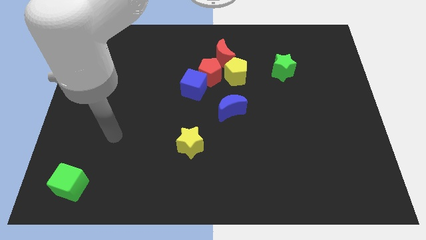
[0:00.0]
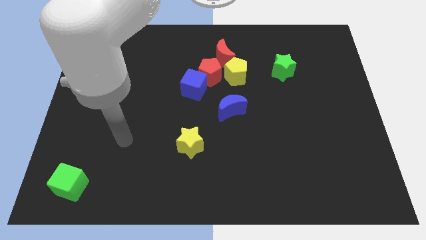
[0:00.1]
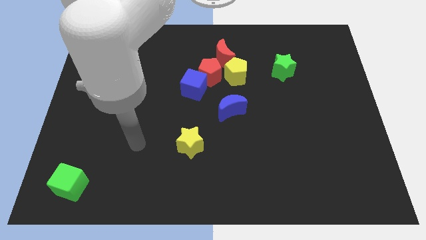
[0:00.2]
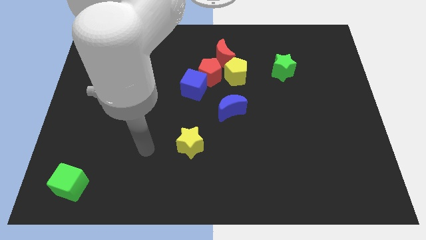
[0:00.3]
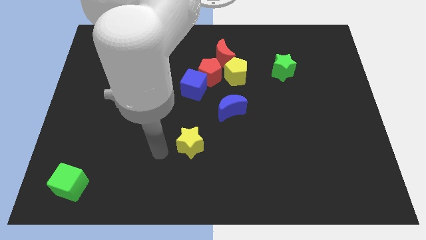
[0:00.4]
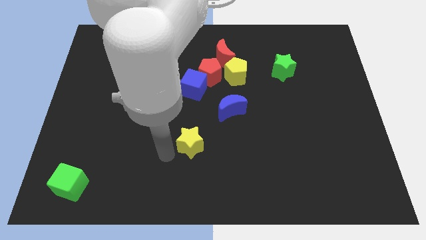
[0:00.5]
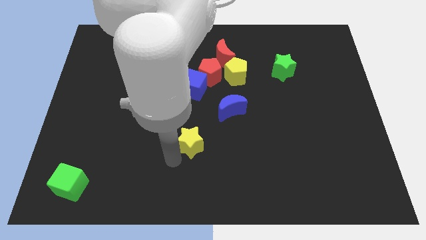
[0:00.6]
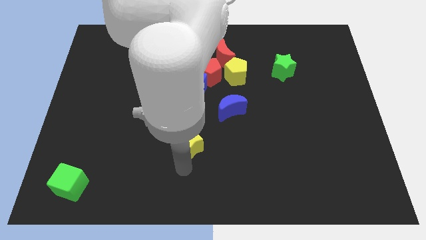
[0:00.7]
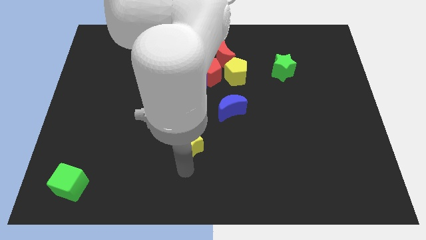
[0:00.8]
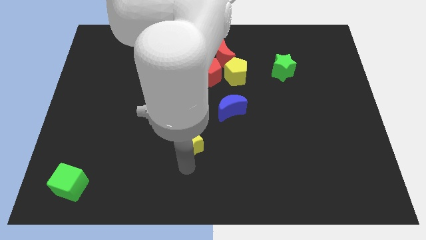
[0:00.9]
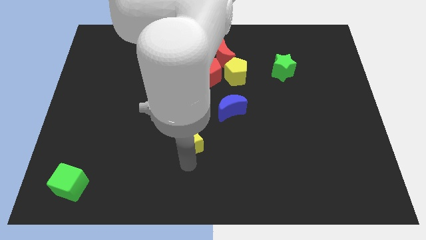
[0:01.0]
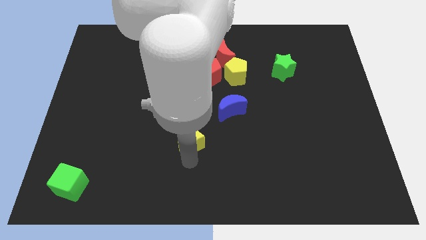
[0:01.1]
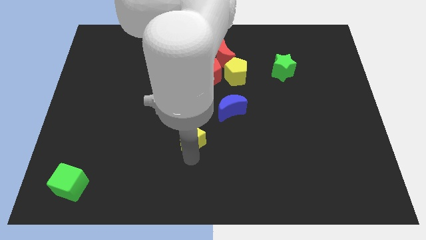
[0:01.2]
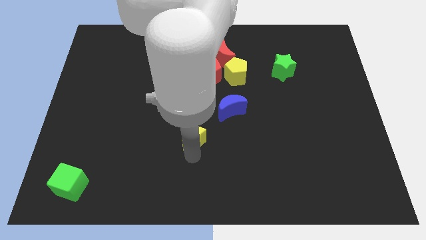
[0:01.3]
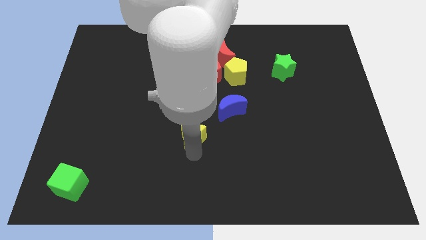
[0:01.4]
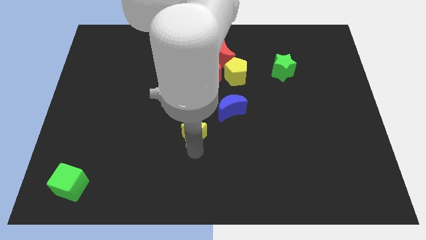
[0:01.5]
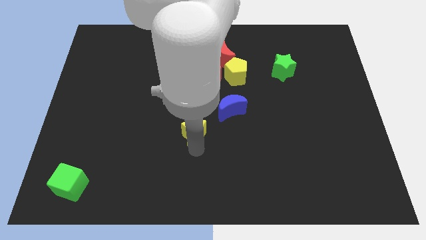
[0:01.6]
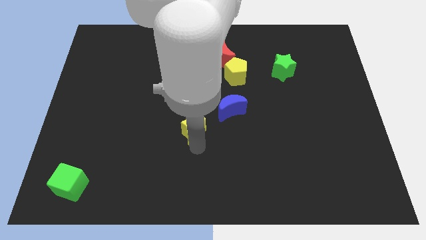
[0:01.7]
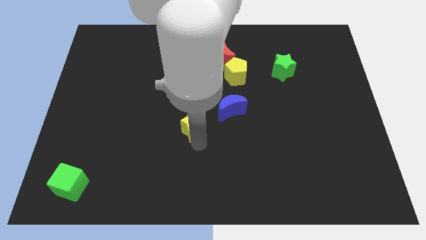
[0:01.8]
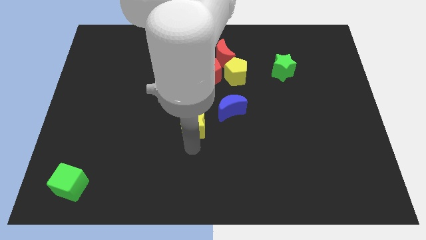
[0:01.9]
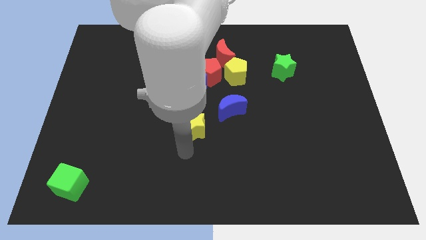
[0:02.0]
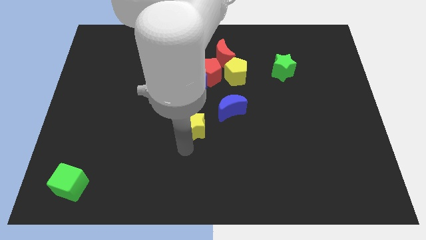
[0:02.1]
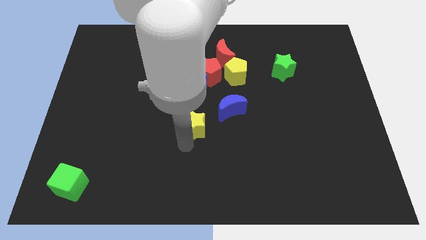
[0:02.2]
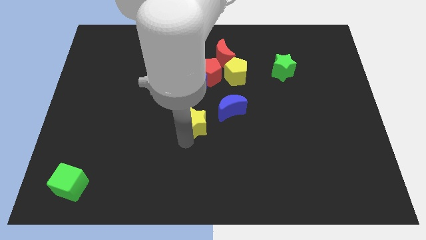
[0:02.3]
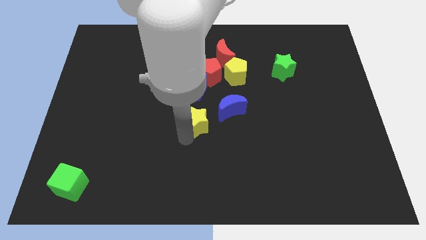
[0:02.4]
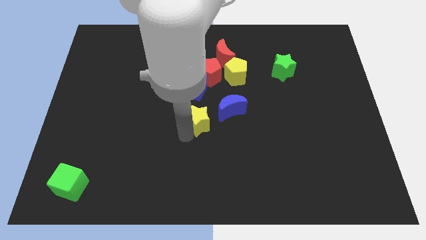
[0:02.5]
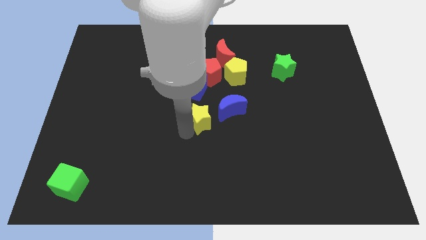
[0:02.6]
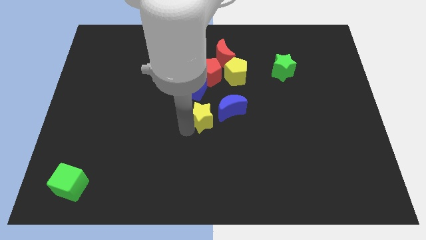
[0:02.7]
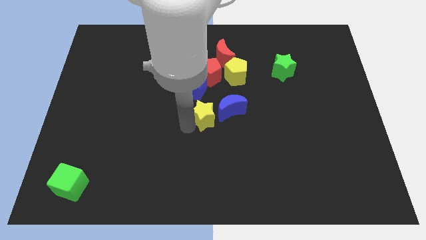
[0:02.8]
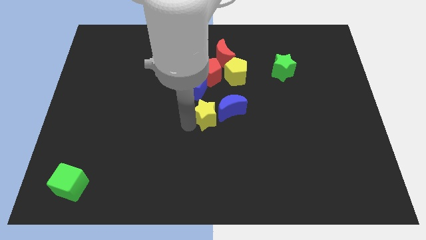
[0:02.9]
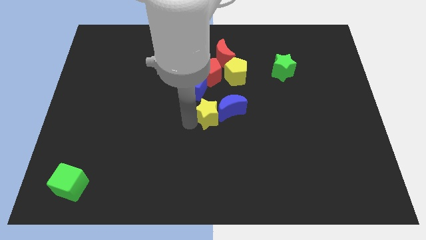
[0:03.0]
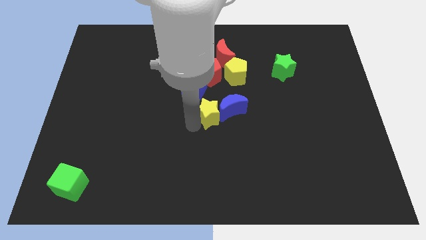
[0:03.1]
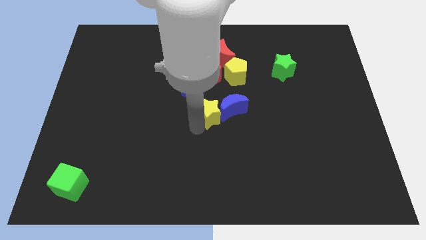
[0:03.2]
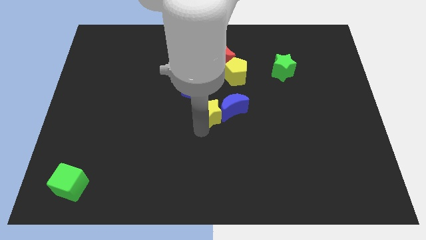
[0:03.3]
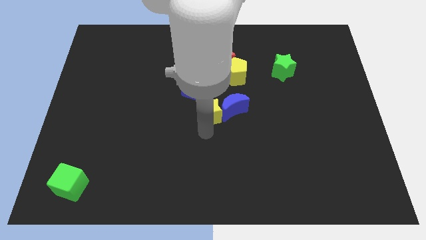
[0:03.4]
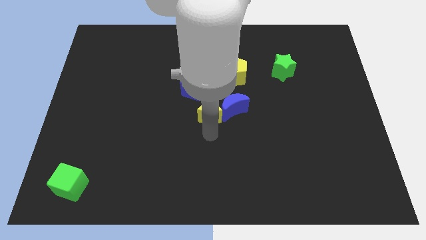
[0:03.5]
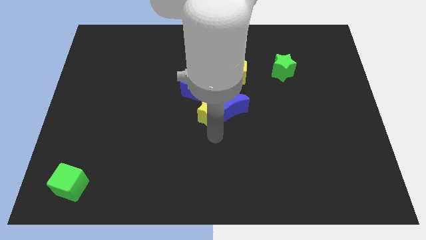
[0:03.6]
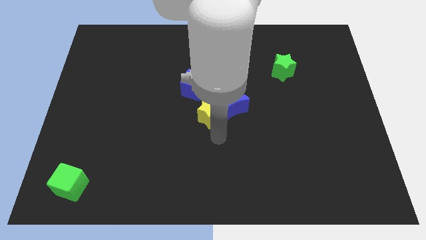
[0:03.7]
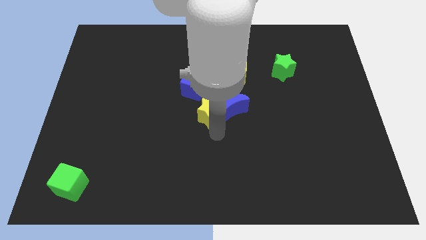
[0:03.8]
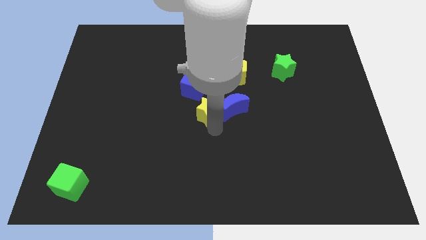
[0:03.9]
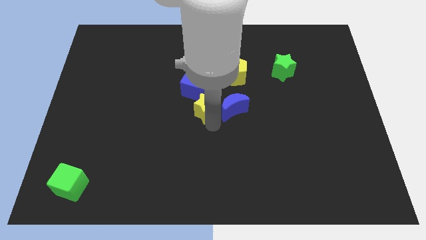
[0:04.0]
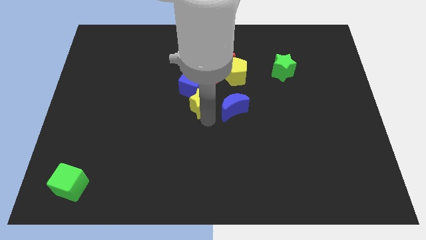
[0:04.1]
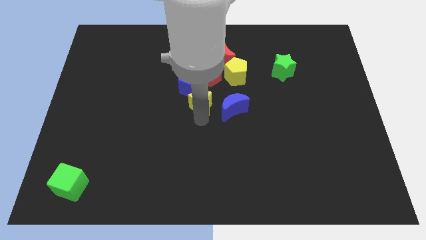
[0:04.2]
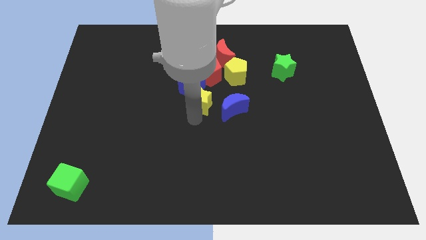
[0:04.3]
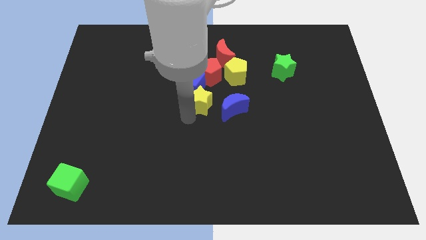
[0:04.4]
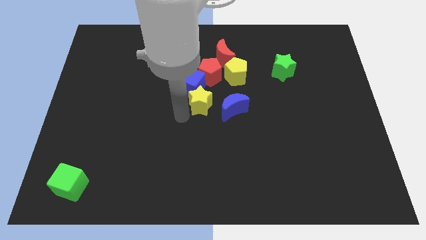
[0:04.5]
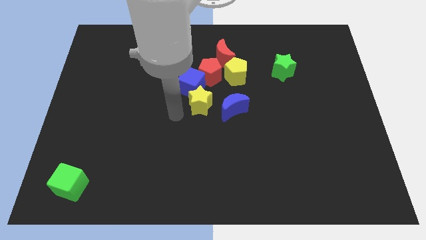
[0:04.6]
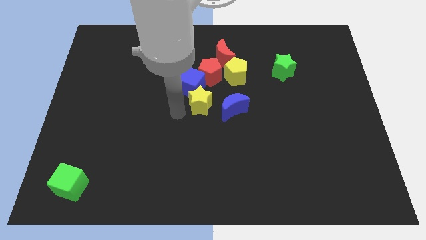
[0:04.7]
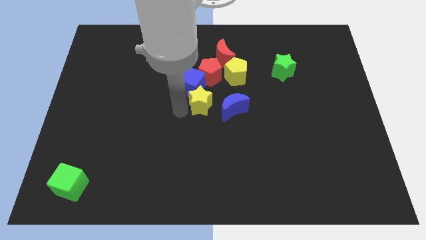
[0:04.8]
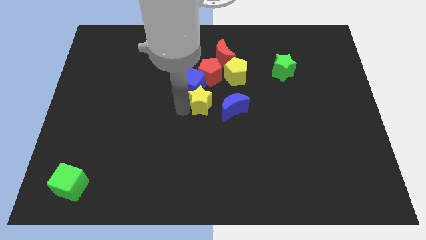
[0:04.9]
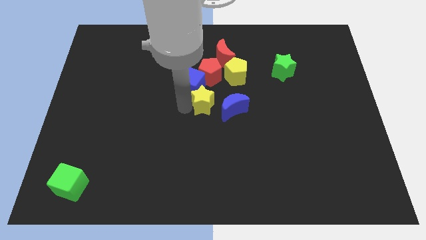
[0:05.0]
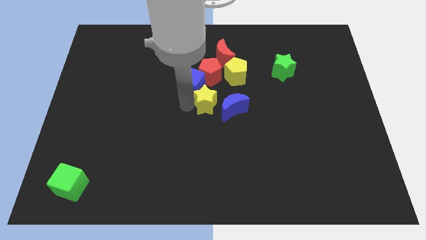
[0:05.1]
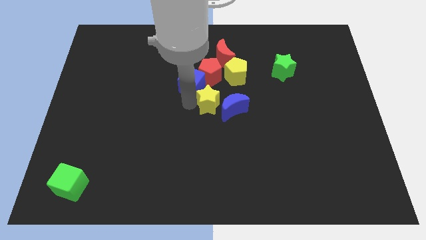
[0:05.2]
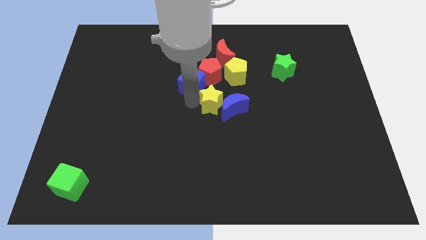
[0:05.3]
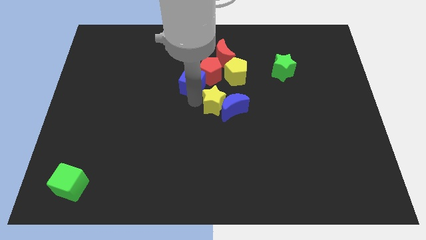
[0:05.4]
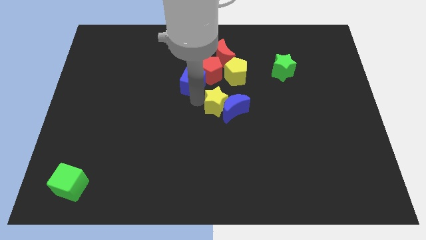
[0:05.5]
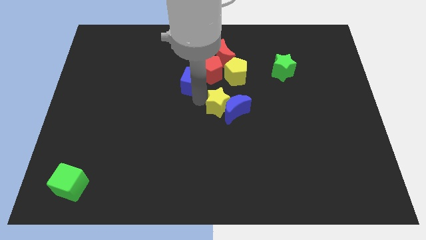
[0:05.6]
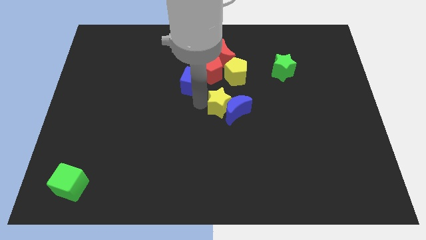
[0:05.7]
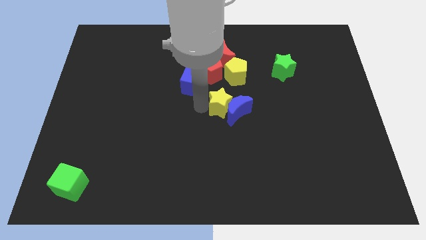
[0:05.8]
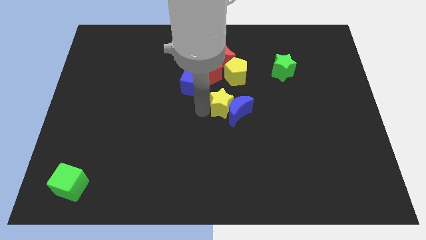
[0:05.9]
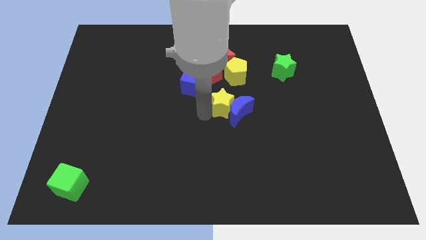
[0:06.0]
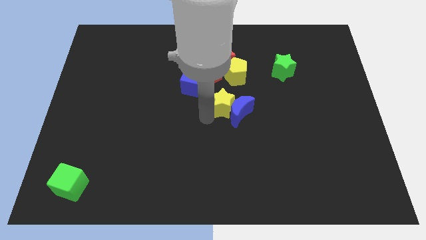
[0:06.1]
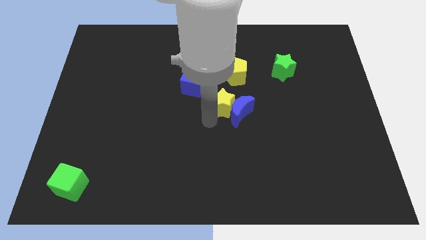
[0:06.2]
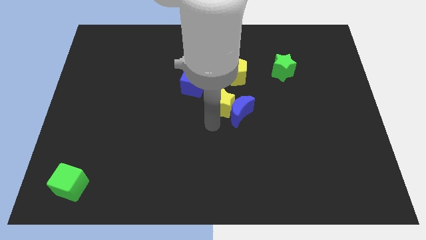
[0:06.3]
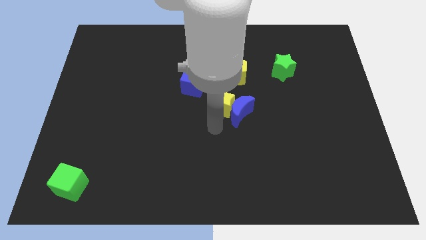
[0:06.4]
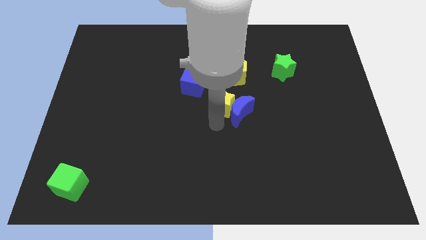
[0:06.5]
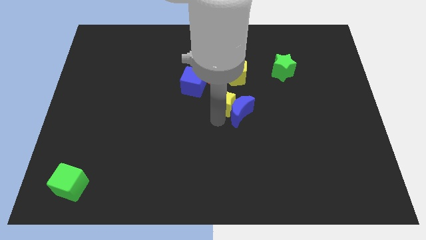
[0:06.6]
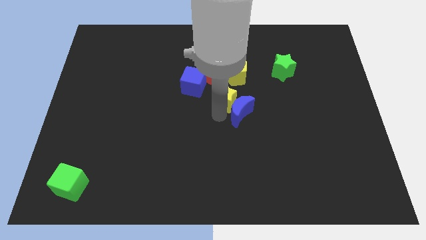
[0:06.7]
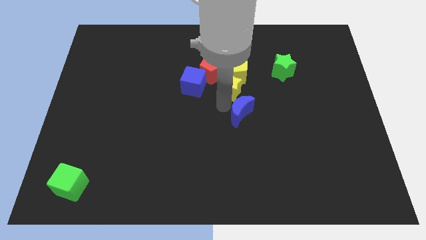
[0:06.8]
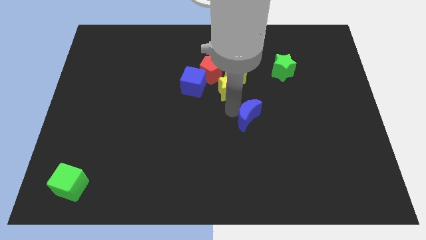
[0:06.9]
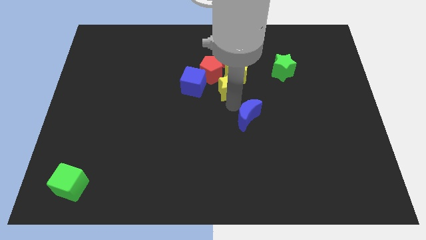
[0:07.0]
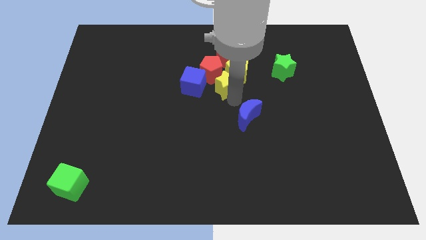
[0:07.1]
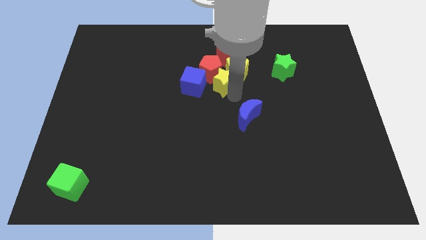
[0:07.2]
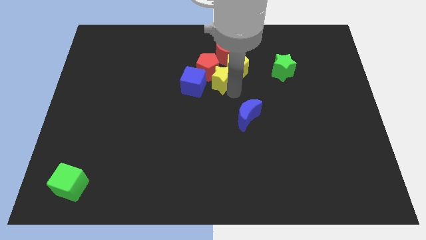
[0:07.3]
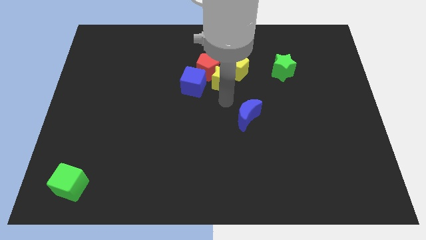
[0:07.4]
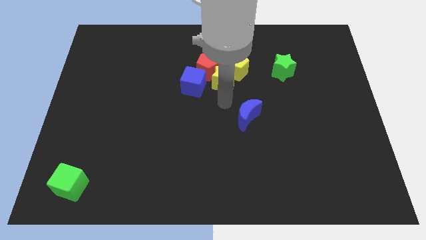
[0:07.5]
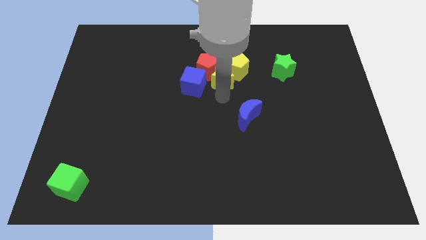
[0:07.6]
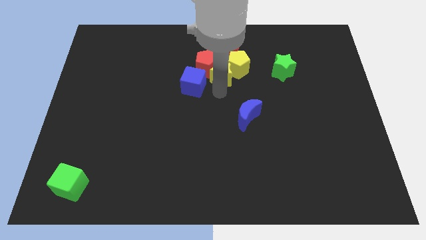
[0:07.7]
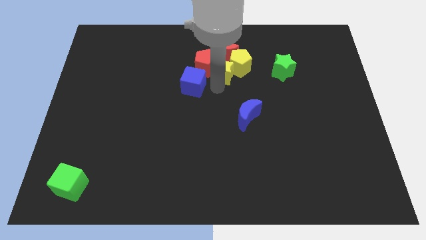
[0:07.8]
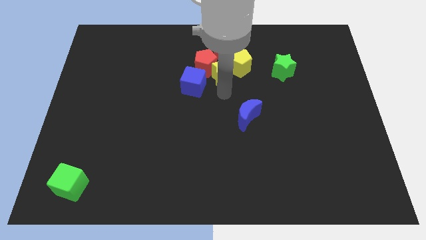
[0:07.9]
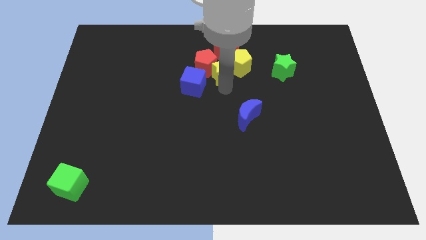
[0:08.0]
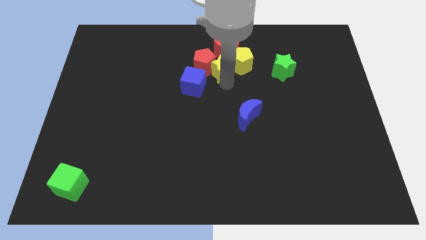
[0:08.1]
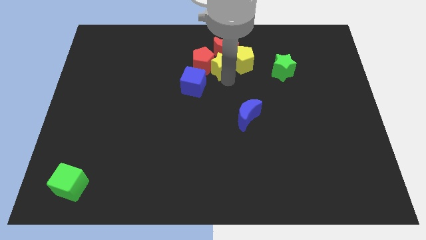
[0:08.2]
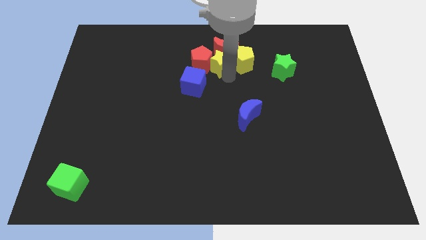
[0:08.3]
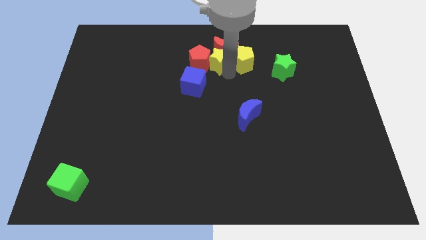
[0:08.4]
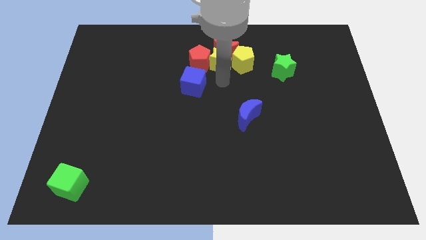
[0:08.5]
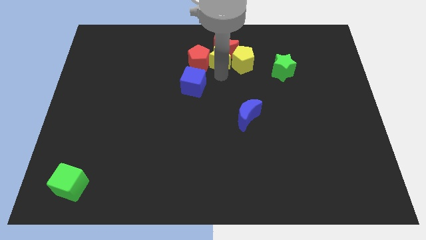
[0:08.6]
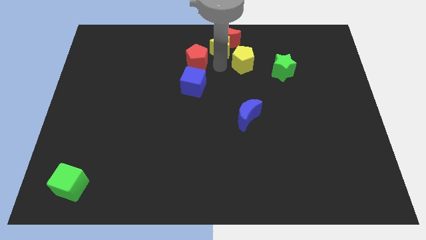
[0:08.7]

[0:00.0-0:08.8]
push the yellow star to the top side
